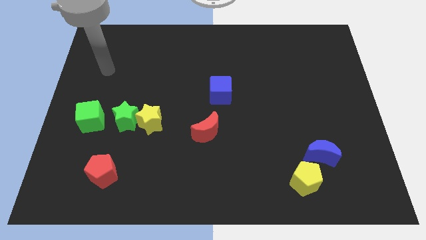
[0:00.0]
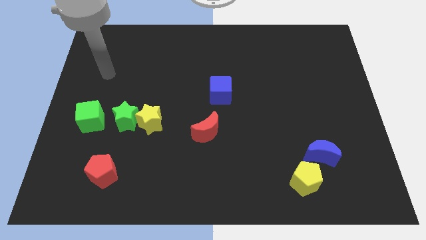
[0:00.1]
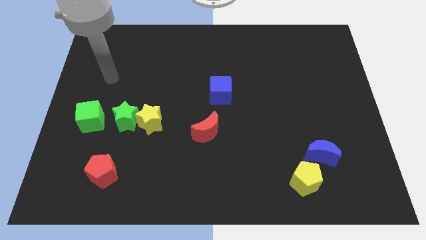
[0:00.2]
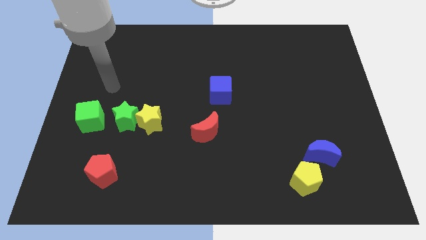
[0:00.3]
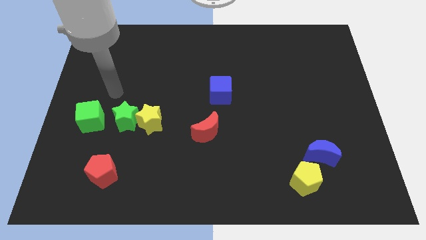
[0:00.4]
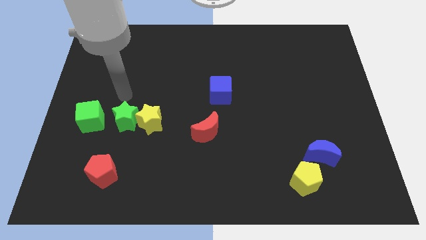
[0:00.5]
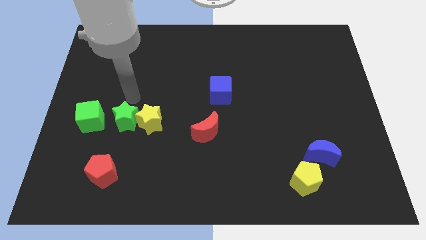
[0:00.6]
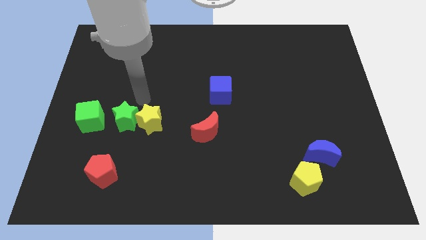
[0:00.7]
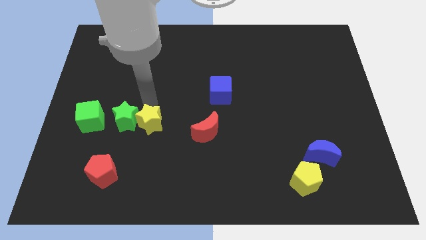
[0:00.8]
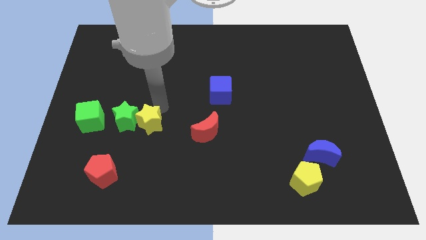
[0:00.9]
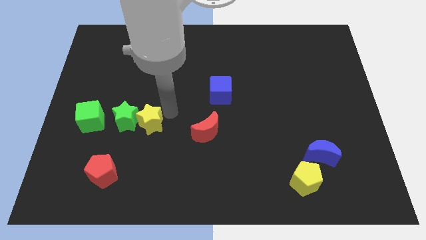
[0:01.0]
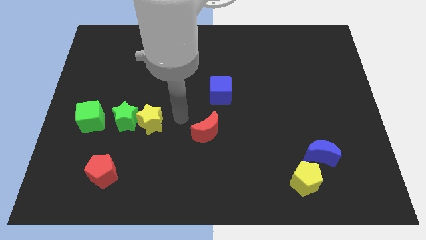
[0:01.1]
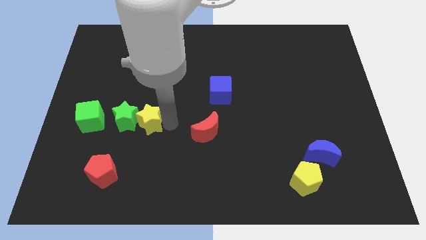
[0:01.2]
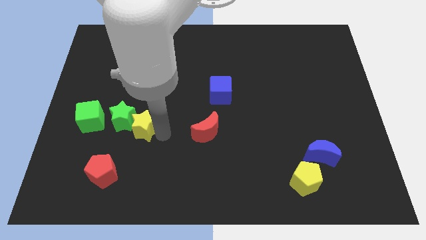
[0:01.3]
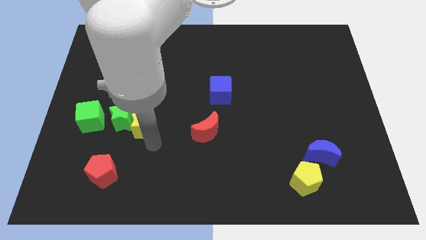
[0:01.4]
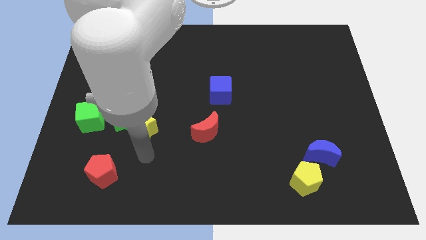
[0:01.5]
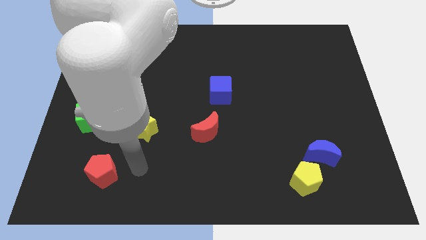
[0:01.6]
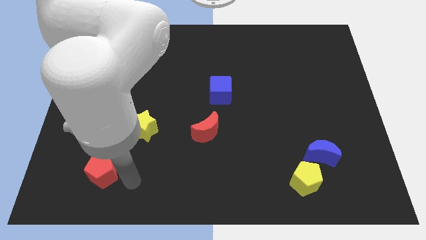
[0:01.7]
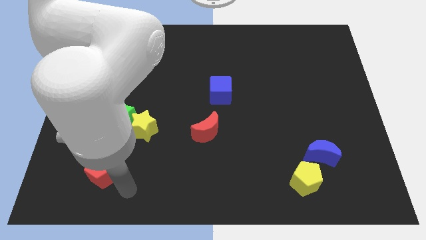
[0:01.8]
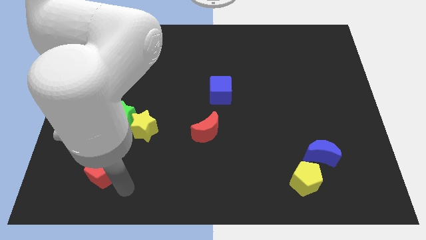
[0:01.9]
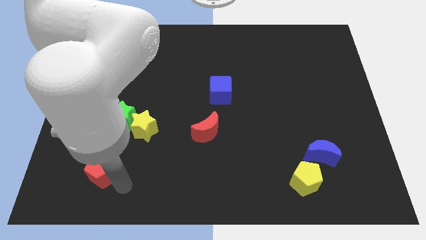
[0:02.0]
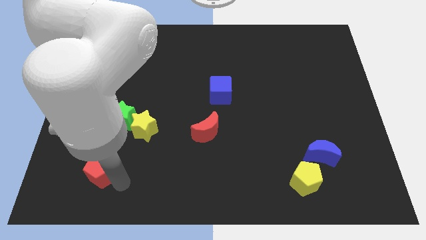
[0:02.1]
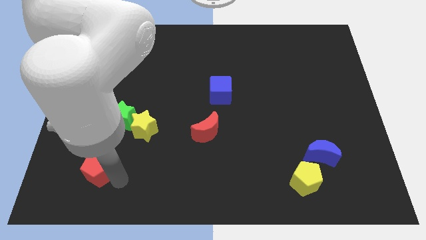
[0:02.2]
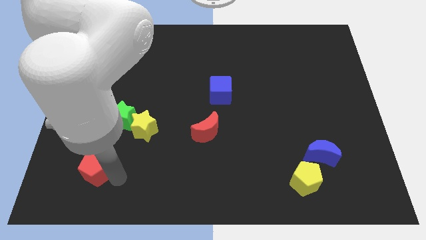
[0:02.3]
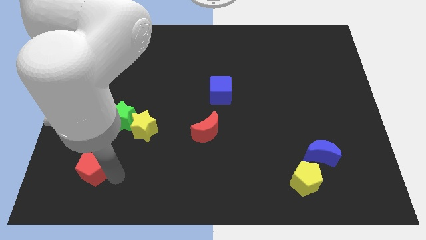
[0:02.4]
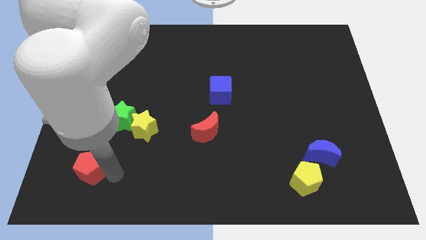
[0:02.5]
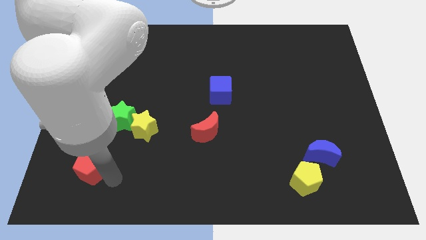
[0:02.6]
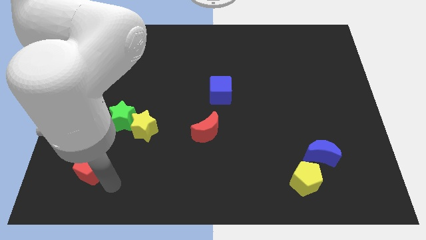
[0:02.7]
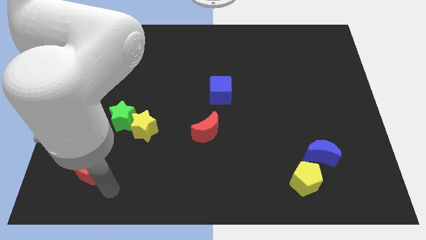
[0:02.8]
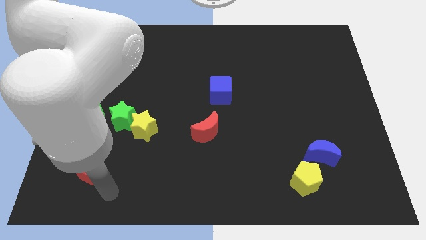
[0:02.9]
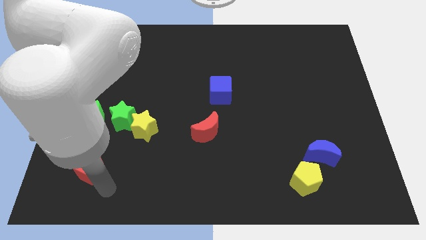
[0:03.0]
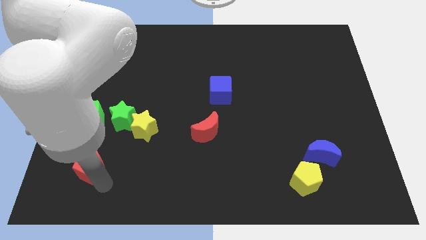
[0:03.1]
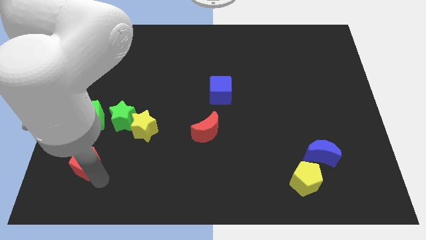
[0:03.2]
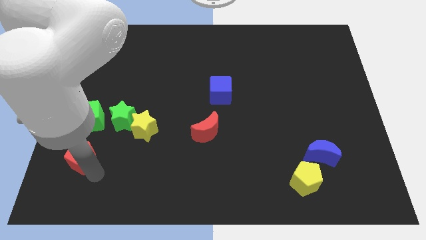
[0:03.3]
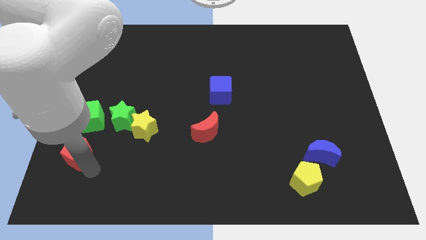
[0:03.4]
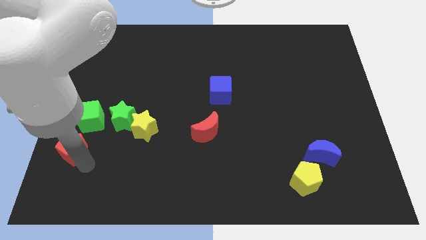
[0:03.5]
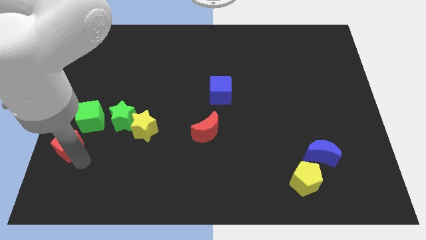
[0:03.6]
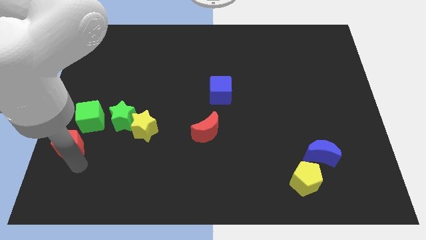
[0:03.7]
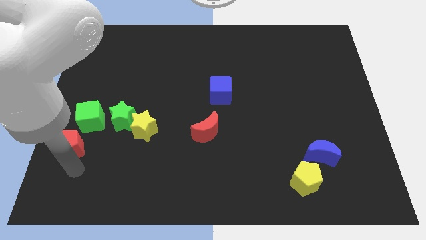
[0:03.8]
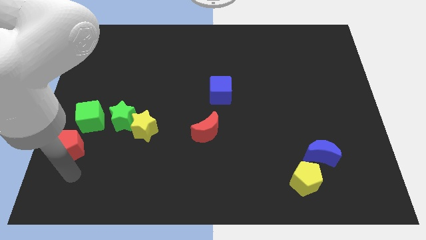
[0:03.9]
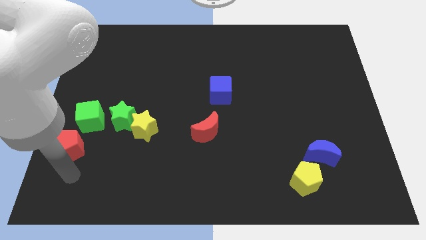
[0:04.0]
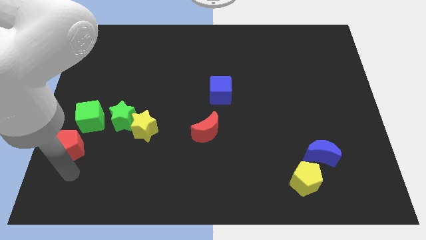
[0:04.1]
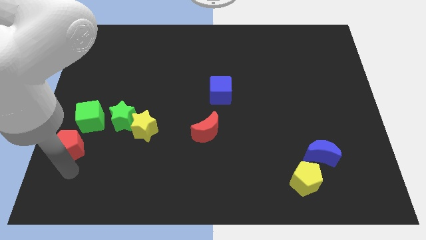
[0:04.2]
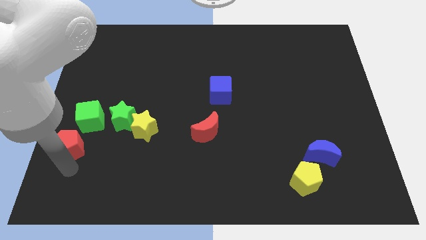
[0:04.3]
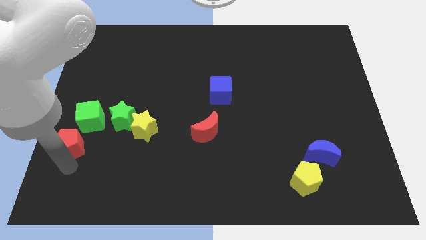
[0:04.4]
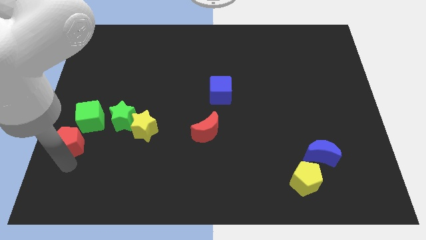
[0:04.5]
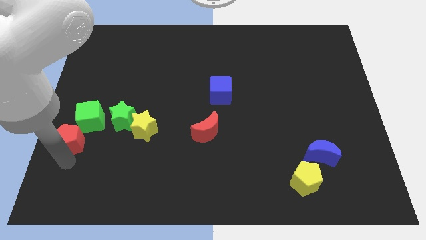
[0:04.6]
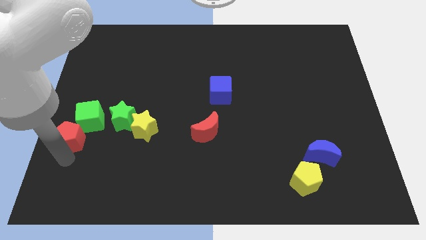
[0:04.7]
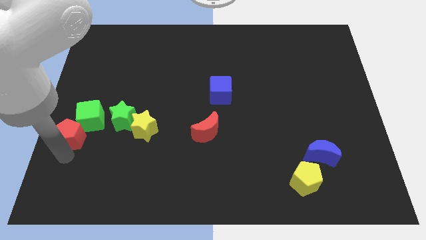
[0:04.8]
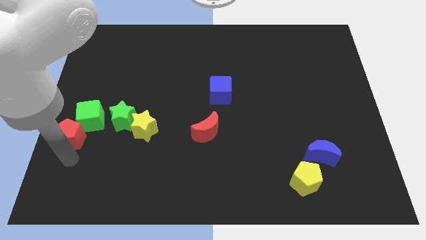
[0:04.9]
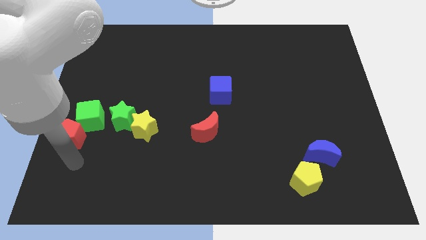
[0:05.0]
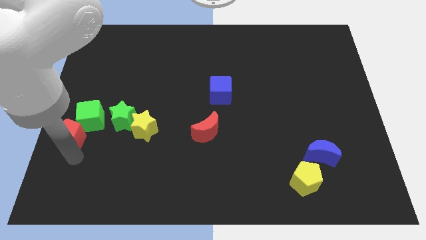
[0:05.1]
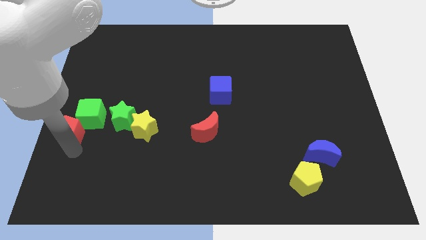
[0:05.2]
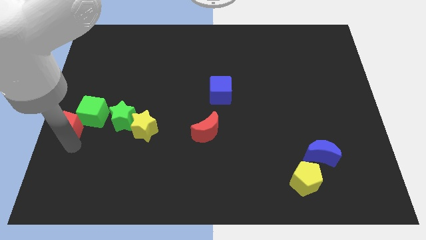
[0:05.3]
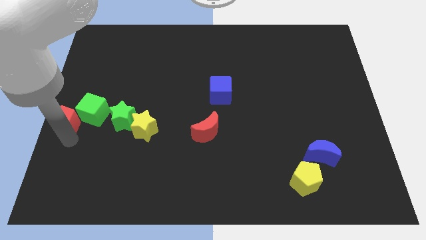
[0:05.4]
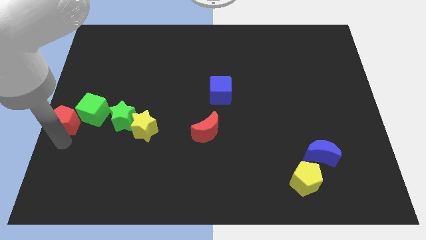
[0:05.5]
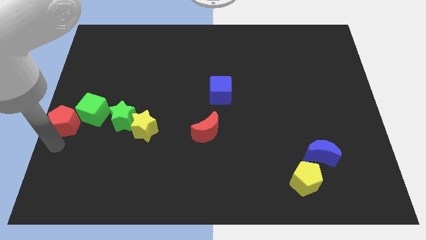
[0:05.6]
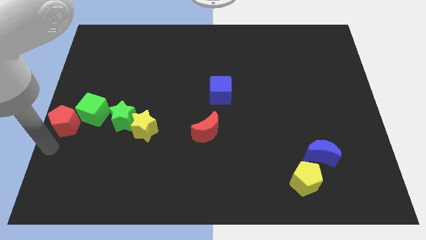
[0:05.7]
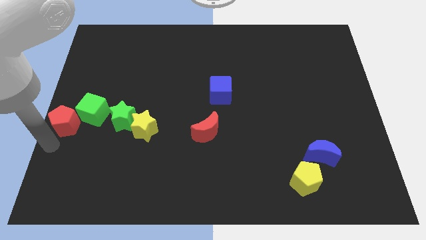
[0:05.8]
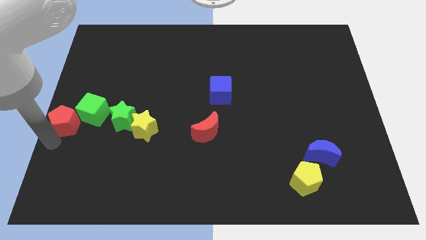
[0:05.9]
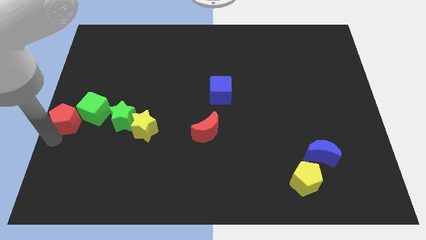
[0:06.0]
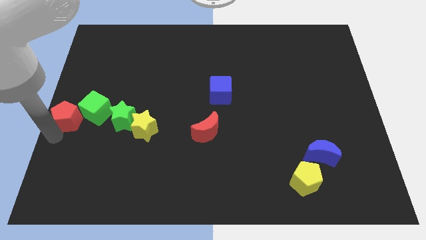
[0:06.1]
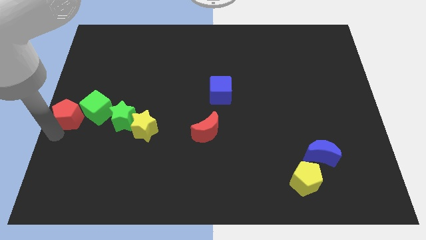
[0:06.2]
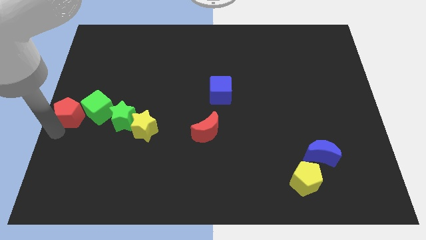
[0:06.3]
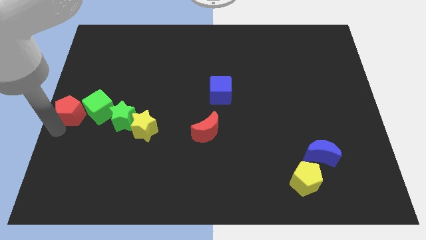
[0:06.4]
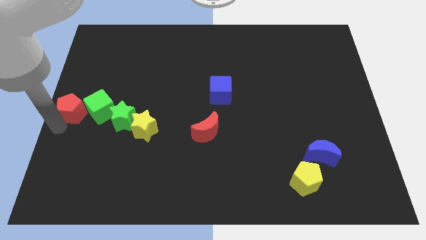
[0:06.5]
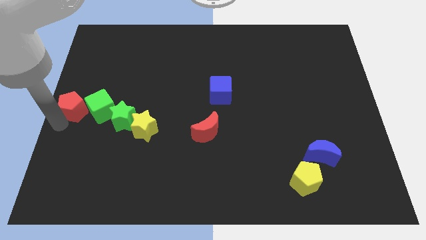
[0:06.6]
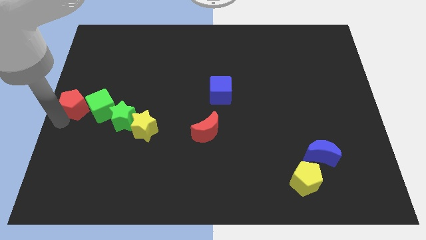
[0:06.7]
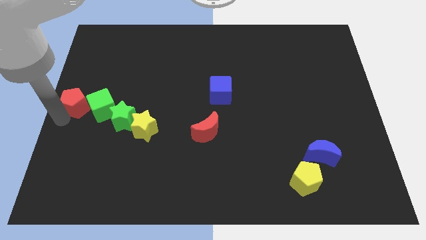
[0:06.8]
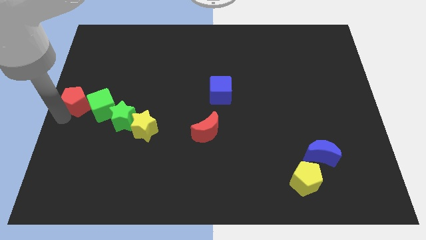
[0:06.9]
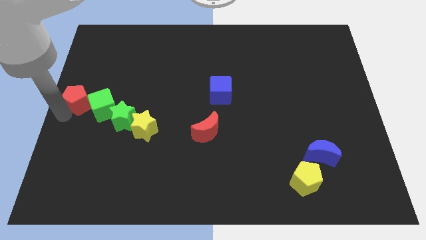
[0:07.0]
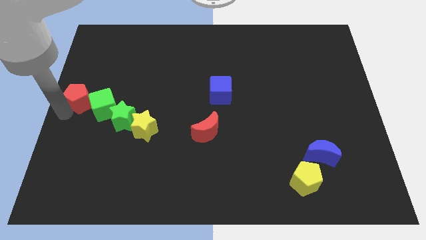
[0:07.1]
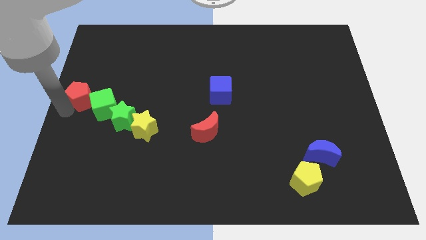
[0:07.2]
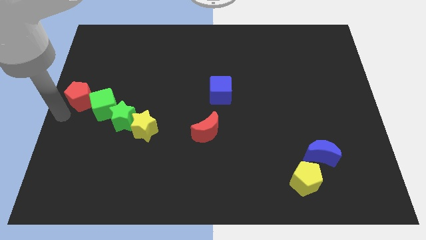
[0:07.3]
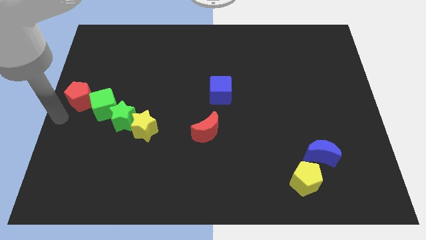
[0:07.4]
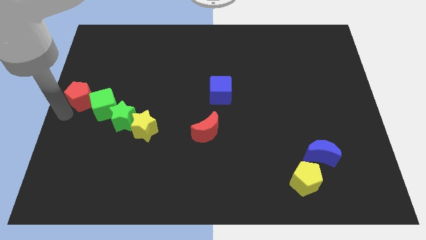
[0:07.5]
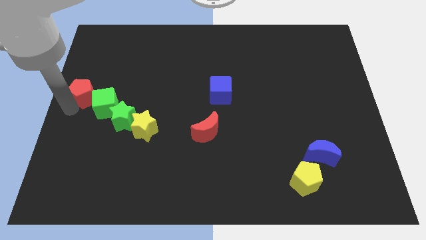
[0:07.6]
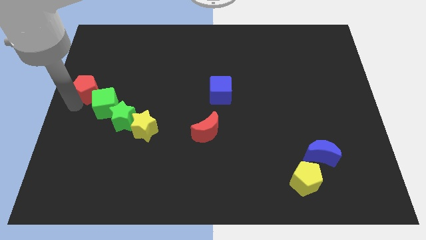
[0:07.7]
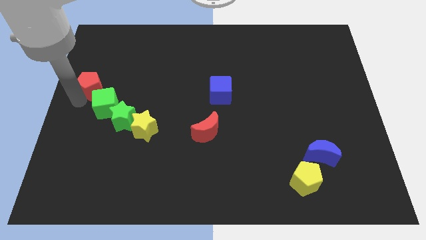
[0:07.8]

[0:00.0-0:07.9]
move the red pentagon up
